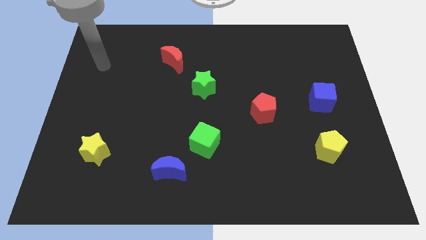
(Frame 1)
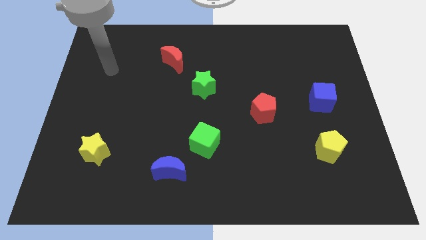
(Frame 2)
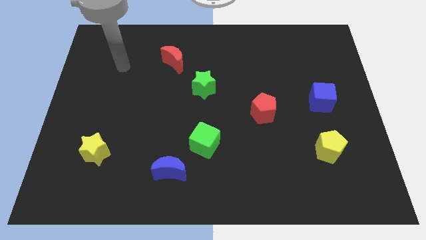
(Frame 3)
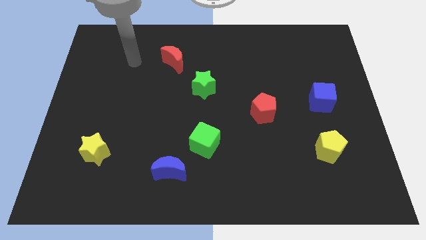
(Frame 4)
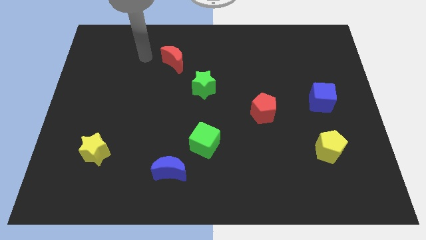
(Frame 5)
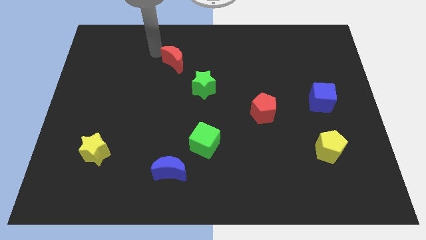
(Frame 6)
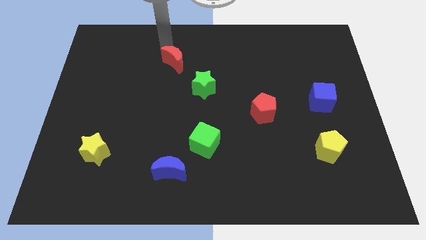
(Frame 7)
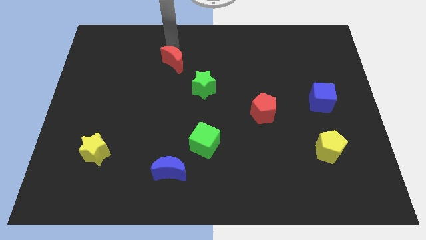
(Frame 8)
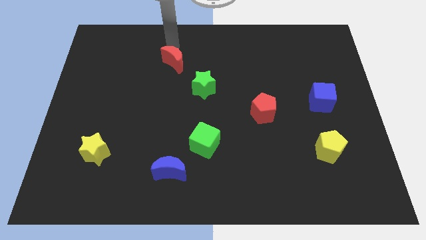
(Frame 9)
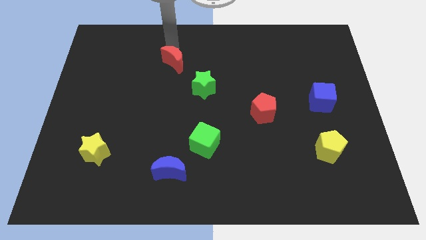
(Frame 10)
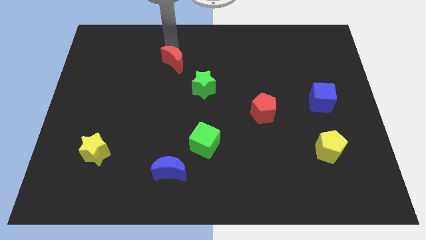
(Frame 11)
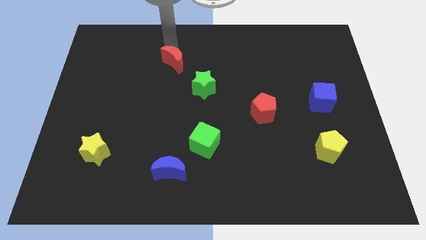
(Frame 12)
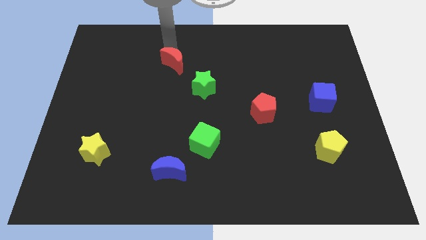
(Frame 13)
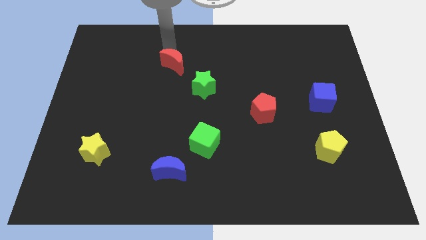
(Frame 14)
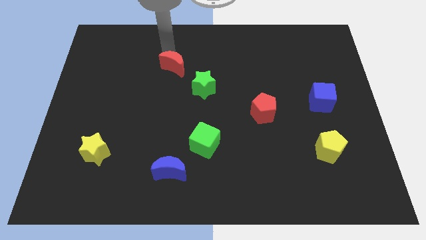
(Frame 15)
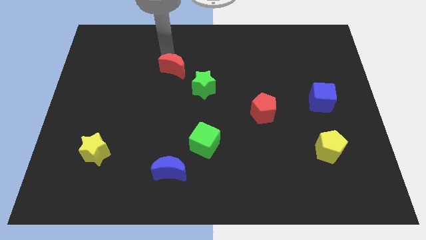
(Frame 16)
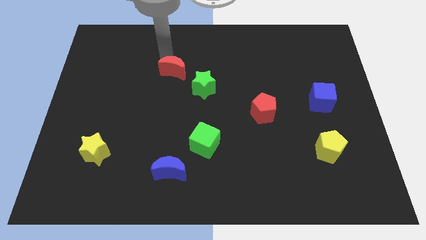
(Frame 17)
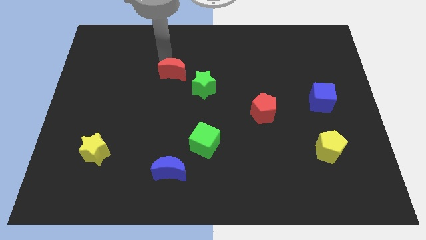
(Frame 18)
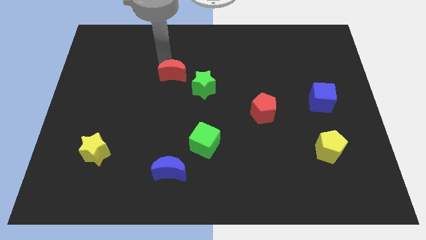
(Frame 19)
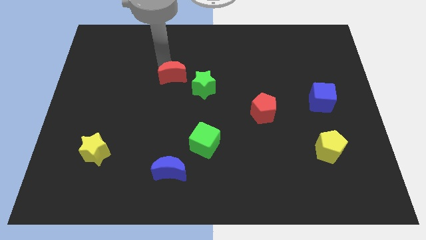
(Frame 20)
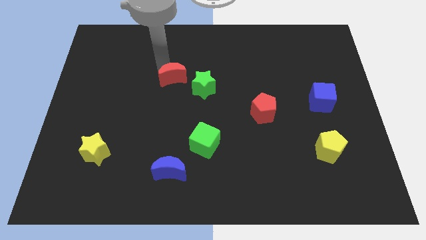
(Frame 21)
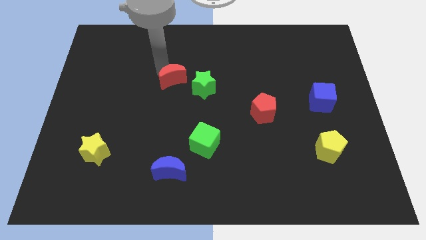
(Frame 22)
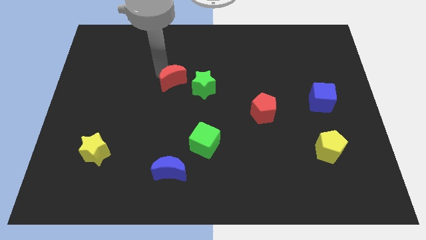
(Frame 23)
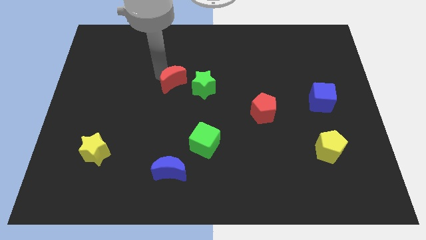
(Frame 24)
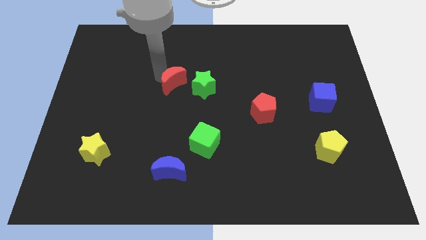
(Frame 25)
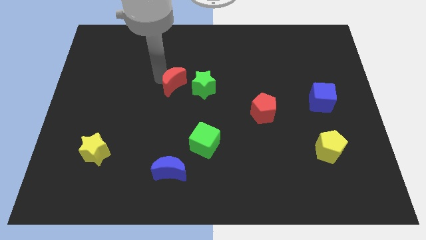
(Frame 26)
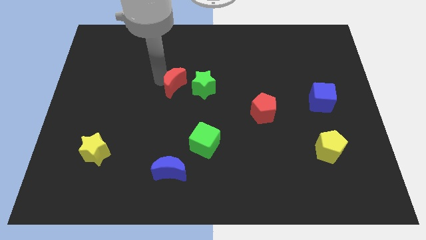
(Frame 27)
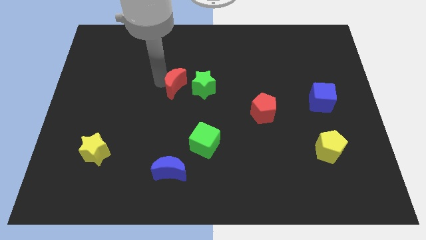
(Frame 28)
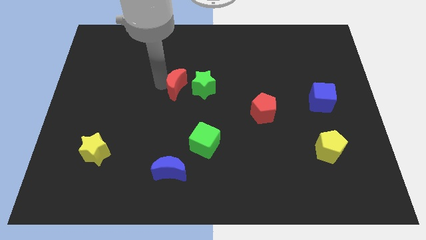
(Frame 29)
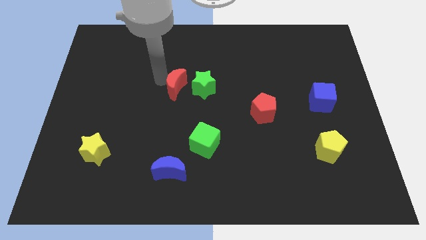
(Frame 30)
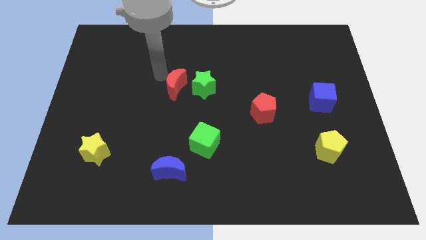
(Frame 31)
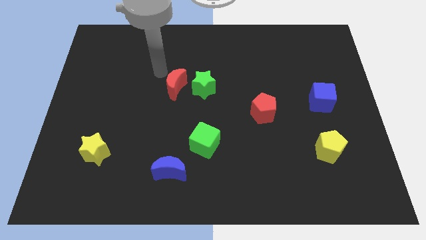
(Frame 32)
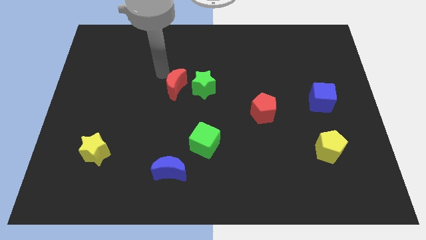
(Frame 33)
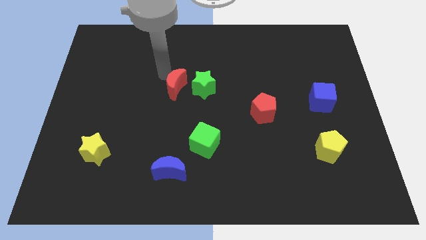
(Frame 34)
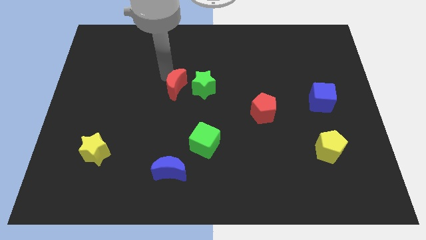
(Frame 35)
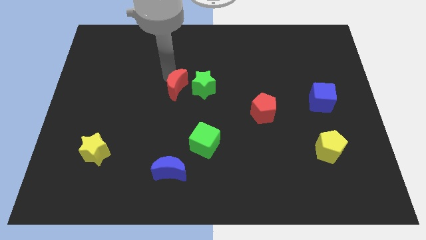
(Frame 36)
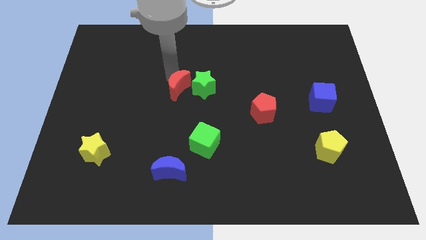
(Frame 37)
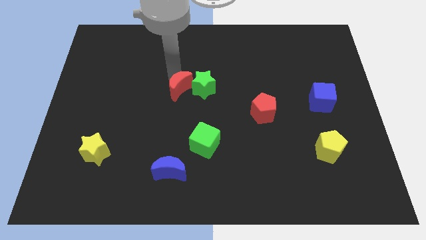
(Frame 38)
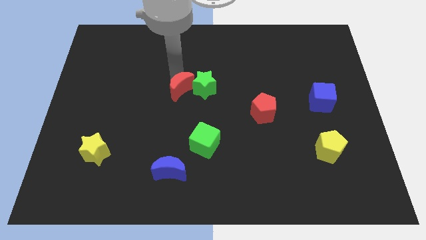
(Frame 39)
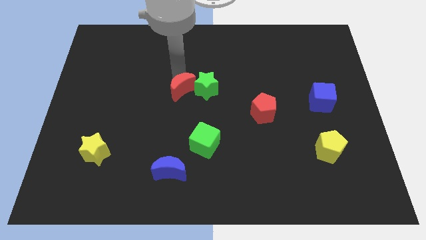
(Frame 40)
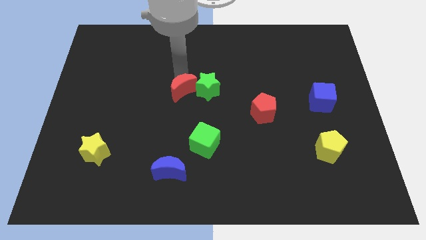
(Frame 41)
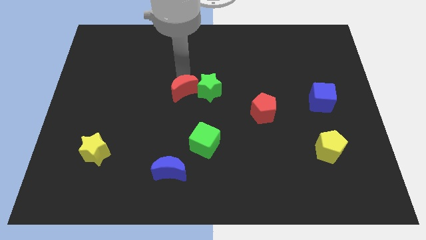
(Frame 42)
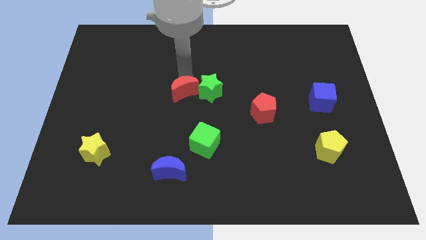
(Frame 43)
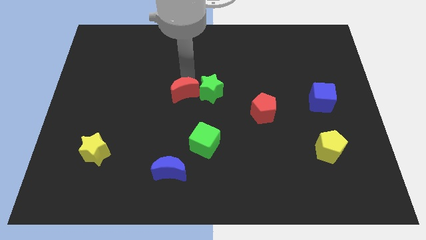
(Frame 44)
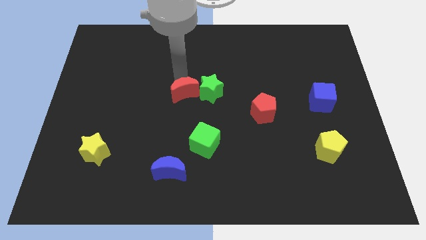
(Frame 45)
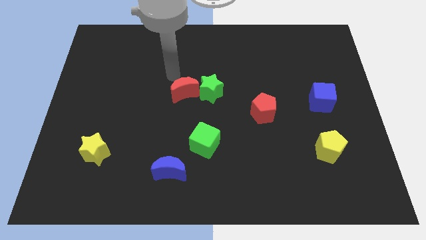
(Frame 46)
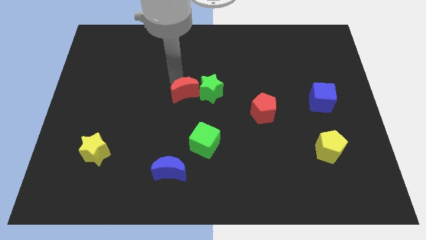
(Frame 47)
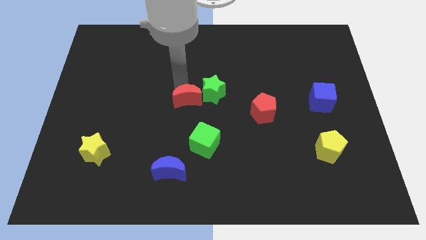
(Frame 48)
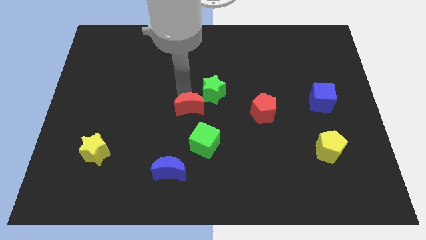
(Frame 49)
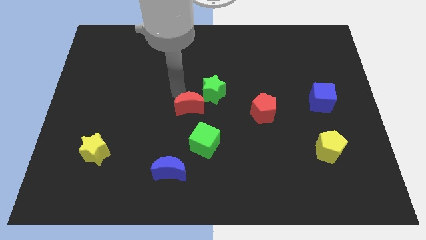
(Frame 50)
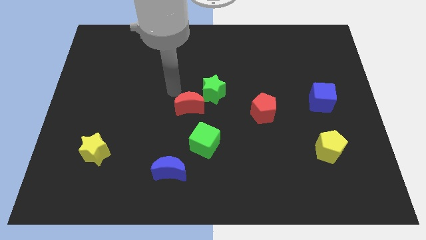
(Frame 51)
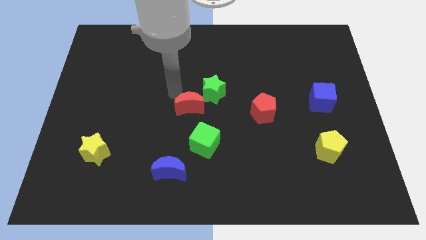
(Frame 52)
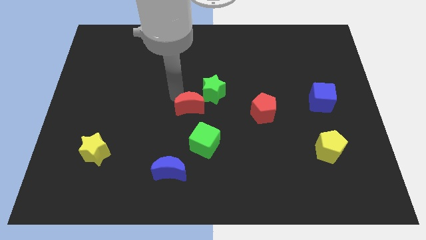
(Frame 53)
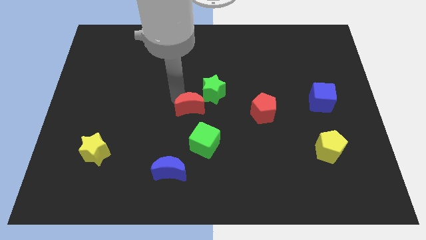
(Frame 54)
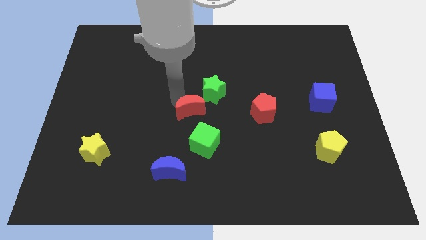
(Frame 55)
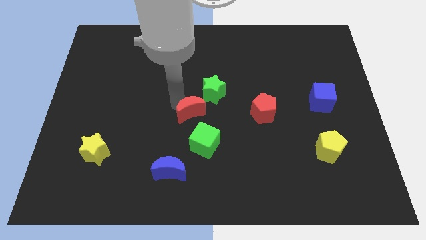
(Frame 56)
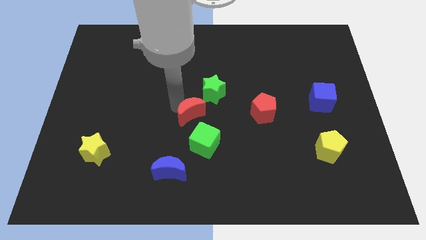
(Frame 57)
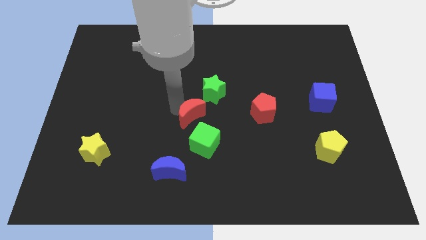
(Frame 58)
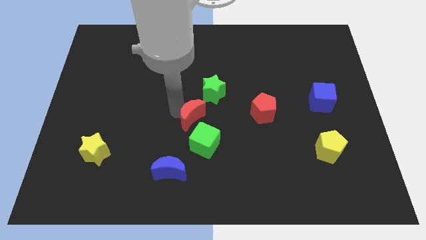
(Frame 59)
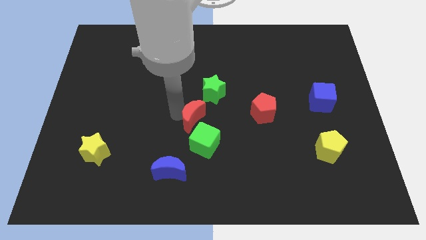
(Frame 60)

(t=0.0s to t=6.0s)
move the red moon to the bottom of the green star

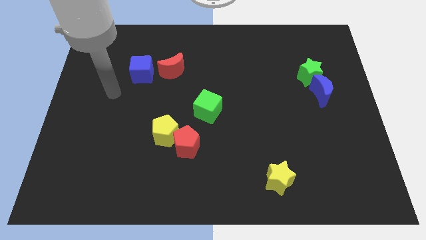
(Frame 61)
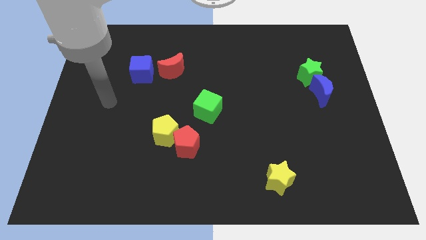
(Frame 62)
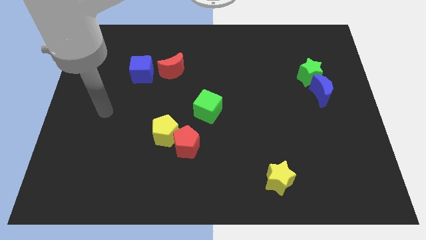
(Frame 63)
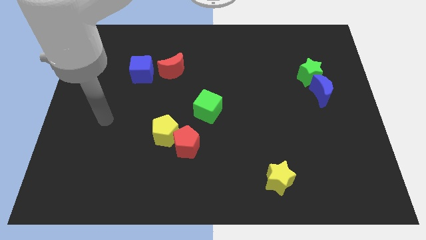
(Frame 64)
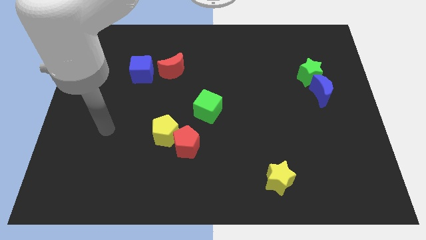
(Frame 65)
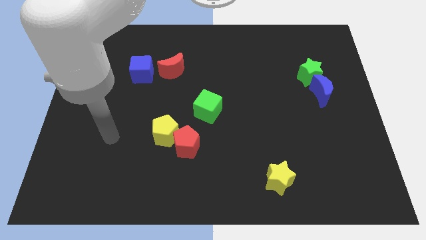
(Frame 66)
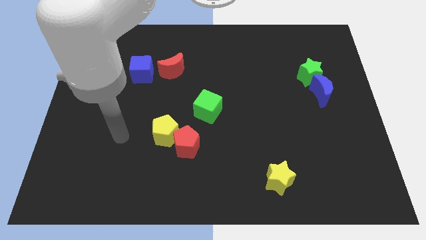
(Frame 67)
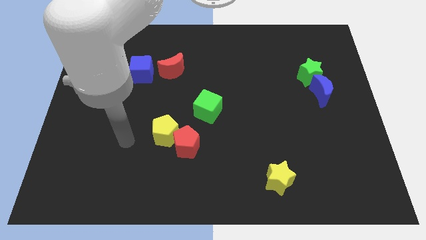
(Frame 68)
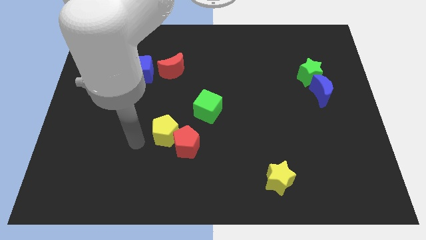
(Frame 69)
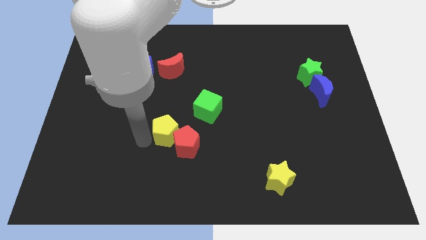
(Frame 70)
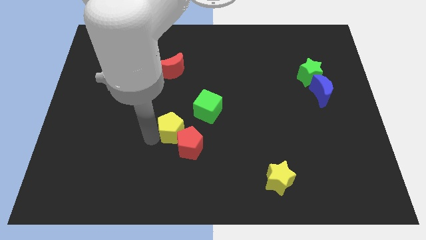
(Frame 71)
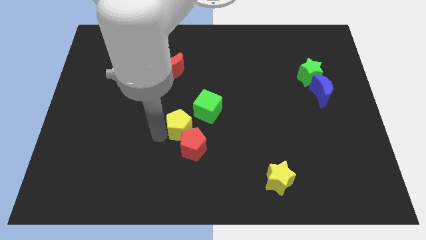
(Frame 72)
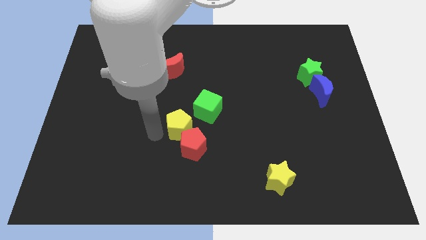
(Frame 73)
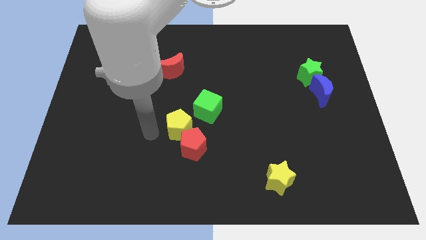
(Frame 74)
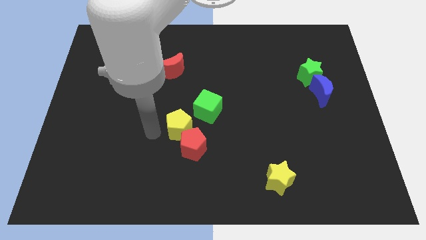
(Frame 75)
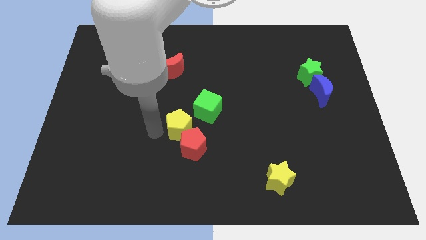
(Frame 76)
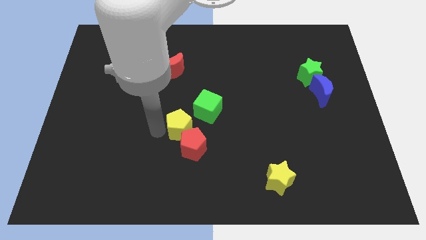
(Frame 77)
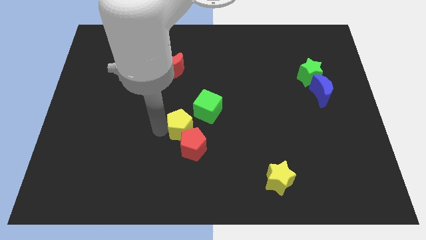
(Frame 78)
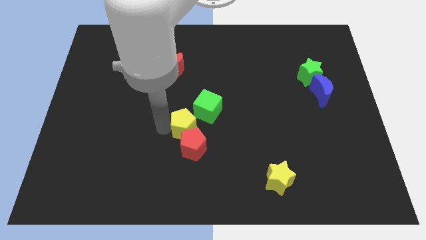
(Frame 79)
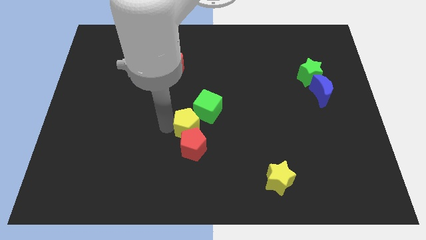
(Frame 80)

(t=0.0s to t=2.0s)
move the yellow pentagon to the top right side of the red pentagon
